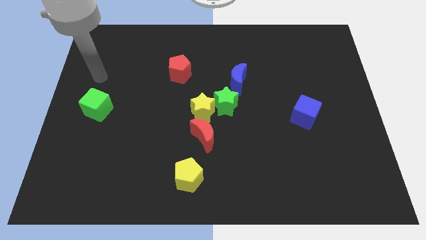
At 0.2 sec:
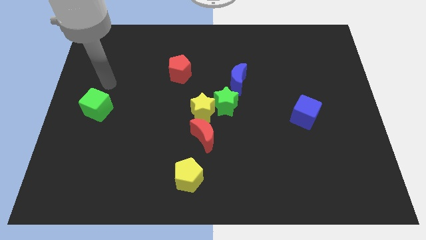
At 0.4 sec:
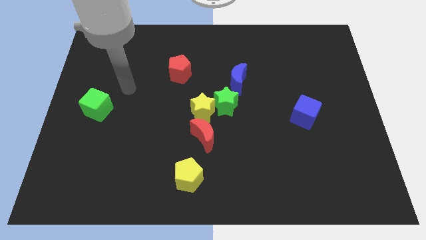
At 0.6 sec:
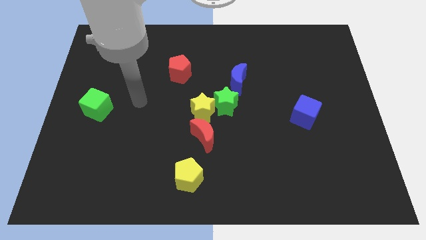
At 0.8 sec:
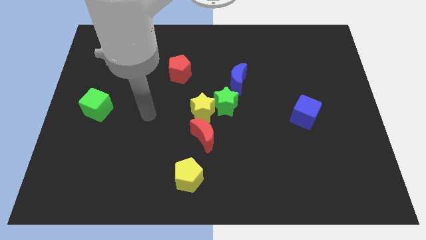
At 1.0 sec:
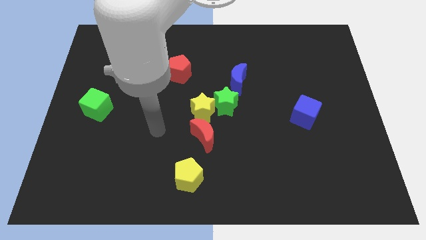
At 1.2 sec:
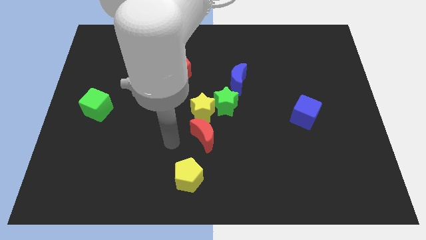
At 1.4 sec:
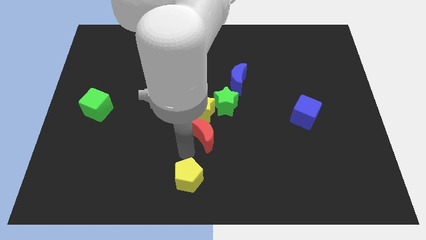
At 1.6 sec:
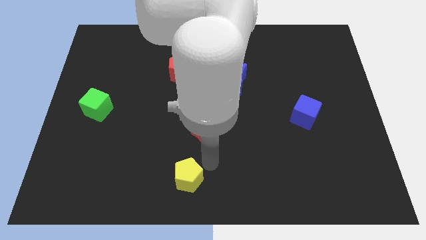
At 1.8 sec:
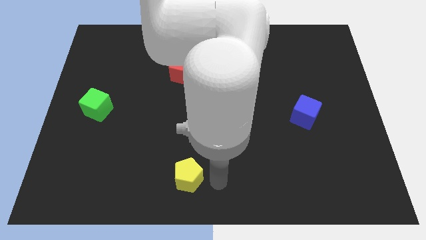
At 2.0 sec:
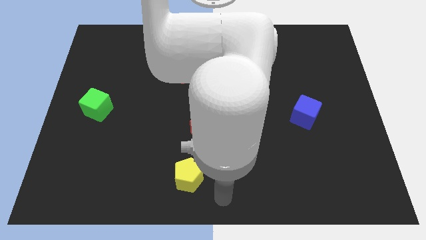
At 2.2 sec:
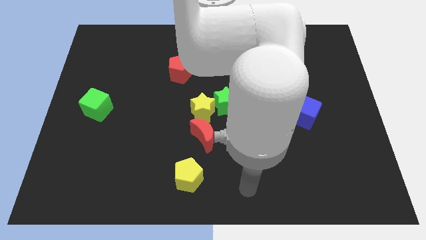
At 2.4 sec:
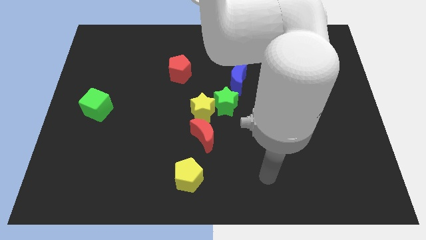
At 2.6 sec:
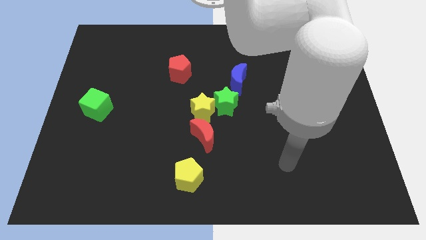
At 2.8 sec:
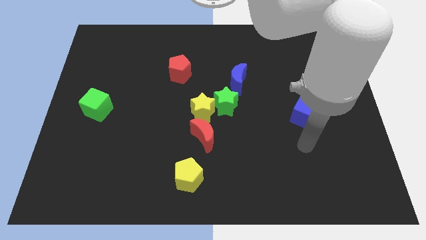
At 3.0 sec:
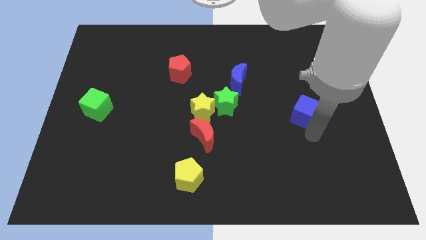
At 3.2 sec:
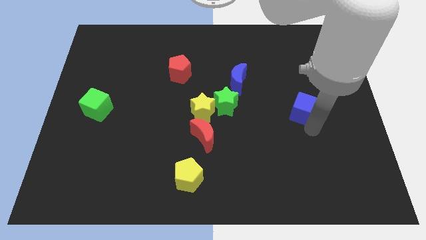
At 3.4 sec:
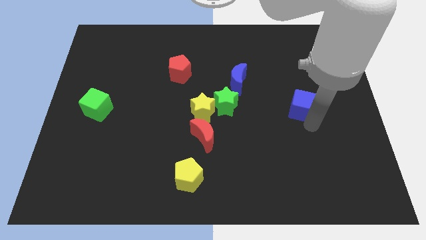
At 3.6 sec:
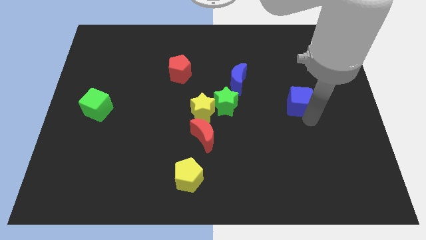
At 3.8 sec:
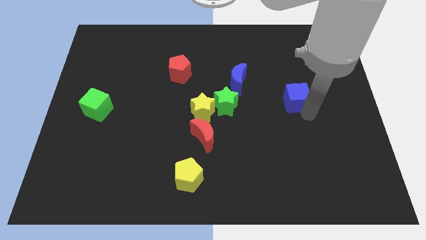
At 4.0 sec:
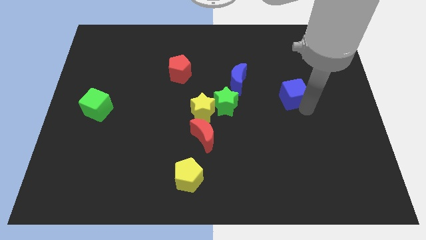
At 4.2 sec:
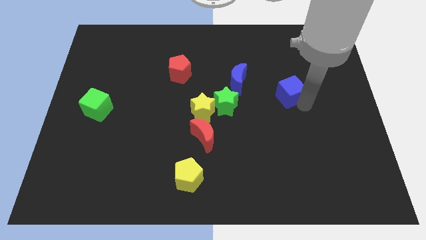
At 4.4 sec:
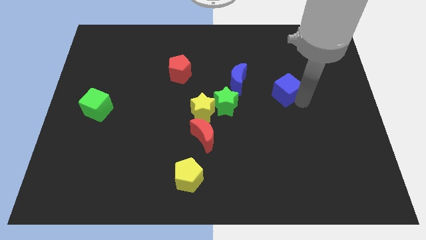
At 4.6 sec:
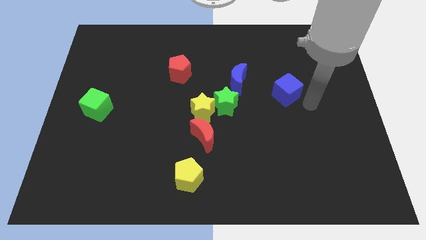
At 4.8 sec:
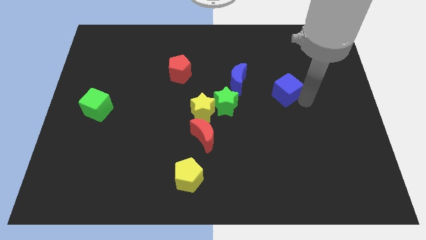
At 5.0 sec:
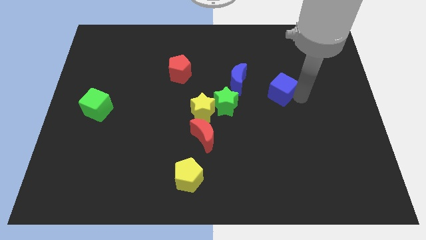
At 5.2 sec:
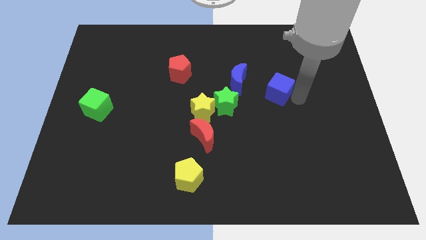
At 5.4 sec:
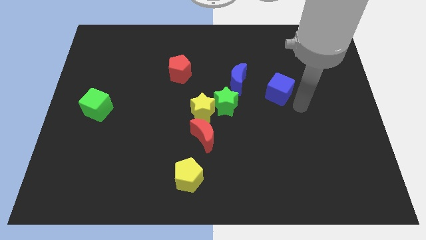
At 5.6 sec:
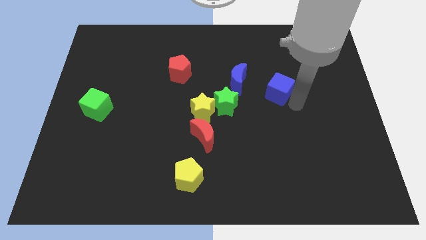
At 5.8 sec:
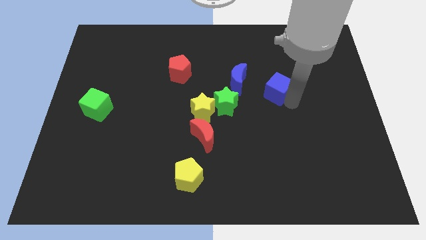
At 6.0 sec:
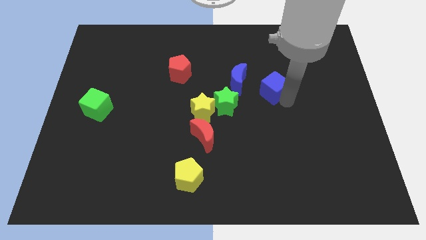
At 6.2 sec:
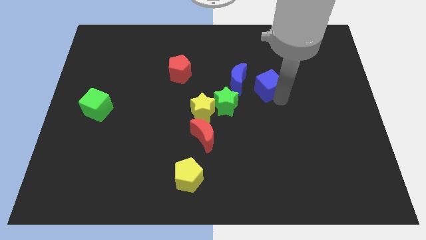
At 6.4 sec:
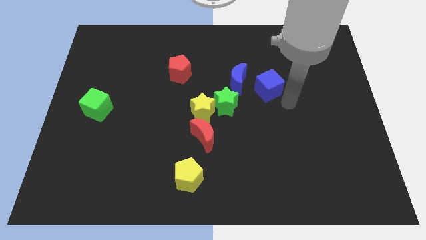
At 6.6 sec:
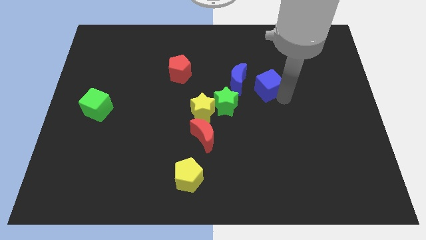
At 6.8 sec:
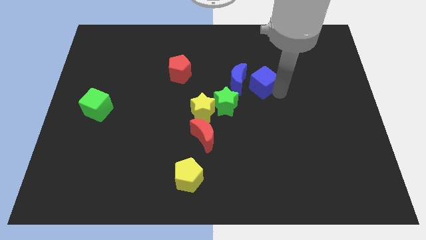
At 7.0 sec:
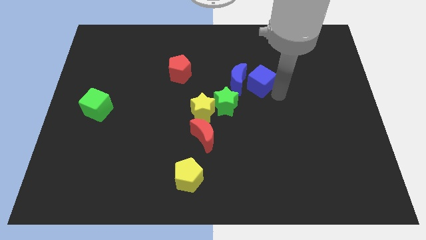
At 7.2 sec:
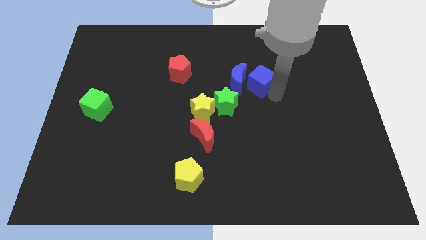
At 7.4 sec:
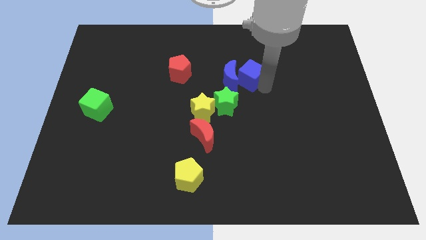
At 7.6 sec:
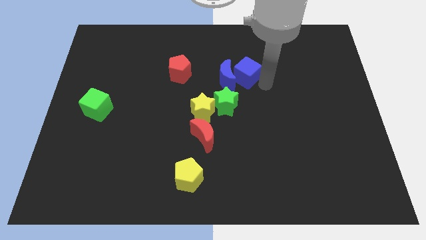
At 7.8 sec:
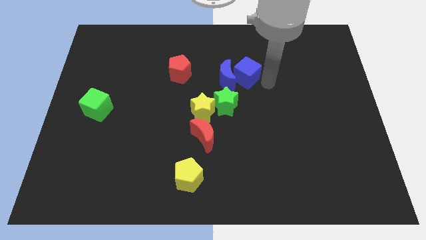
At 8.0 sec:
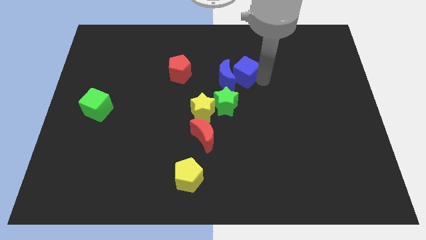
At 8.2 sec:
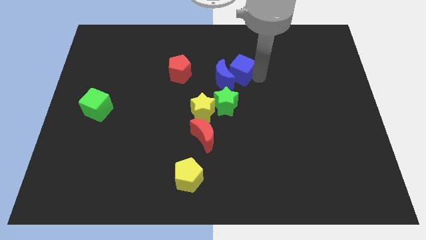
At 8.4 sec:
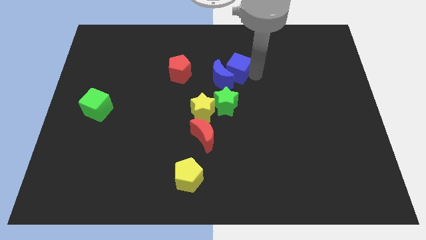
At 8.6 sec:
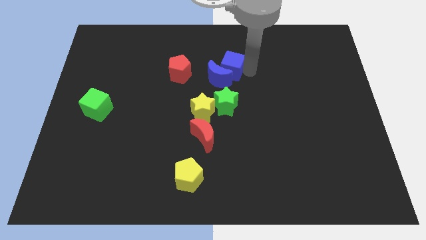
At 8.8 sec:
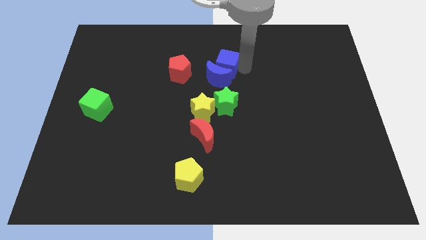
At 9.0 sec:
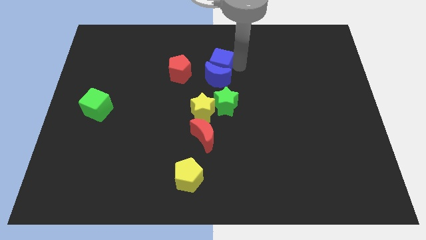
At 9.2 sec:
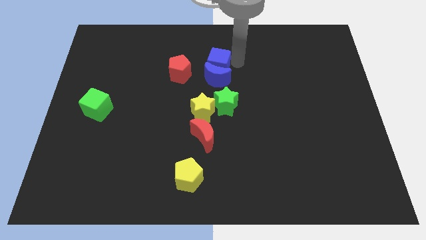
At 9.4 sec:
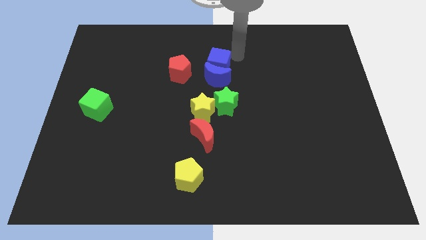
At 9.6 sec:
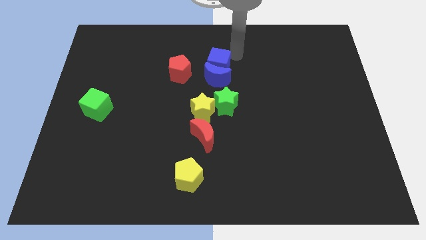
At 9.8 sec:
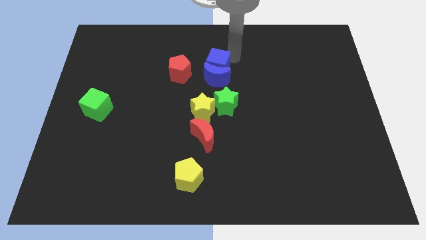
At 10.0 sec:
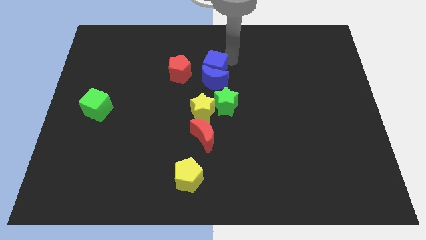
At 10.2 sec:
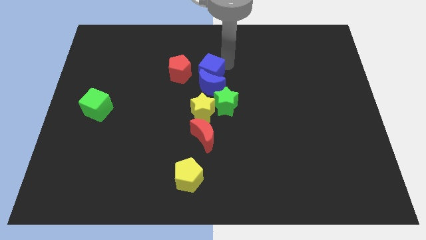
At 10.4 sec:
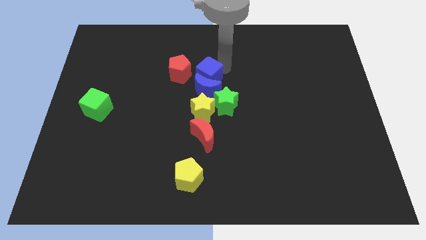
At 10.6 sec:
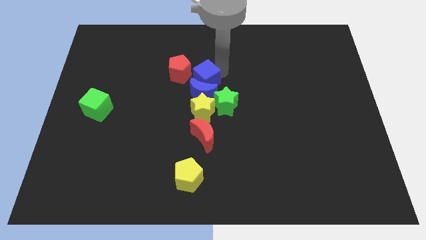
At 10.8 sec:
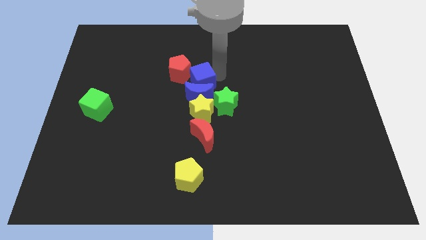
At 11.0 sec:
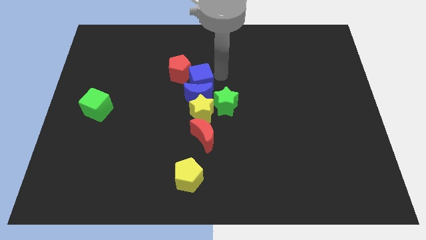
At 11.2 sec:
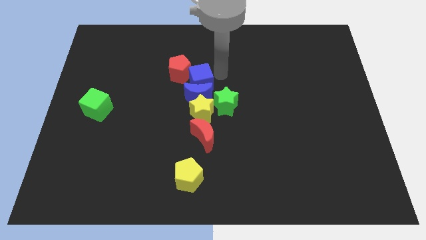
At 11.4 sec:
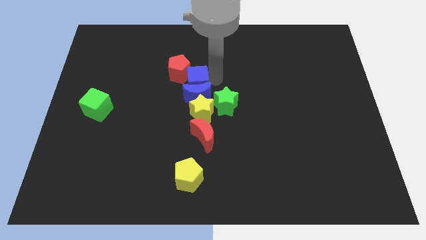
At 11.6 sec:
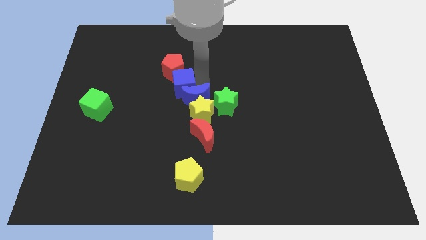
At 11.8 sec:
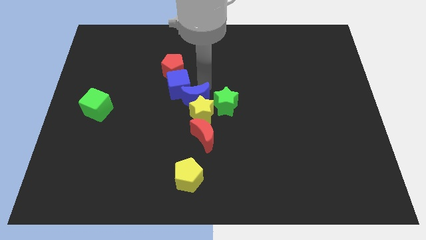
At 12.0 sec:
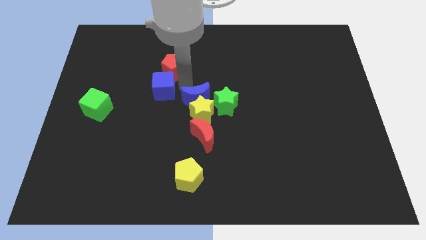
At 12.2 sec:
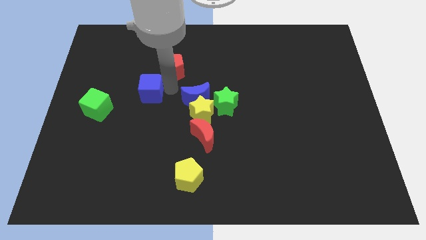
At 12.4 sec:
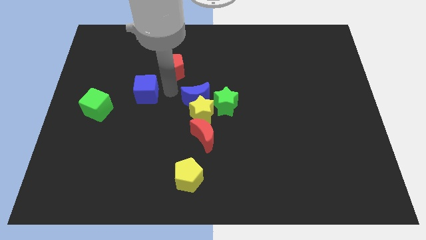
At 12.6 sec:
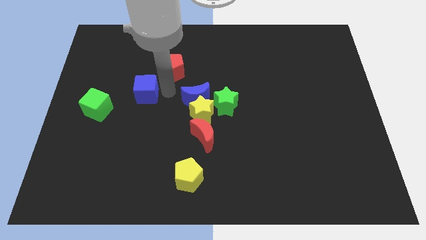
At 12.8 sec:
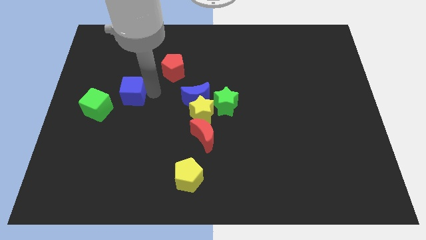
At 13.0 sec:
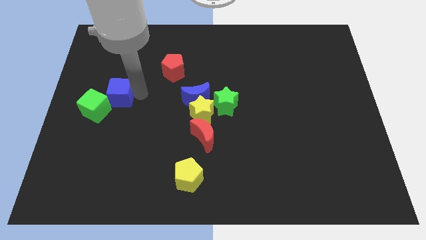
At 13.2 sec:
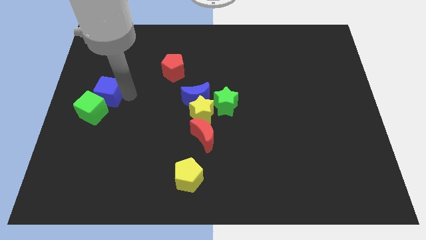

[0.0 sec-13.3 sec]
put the blue cube to the center left
